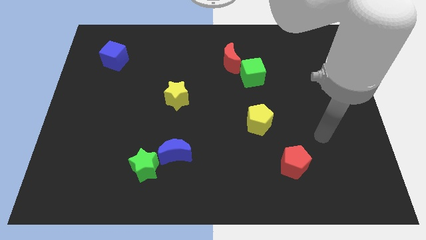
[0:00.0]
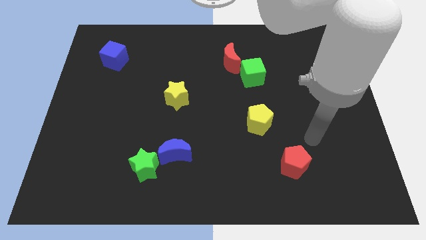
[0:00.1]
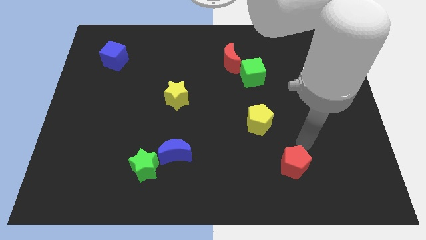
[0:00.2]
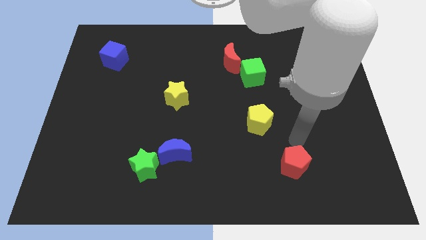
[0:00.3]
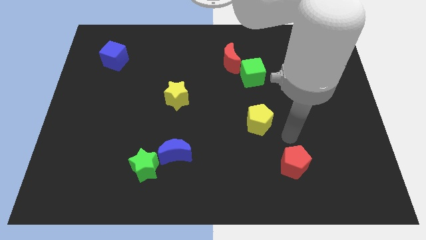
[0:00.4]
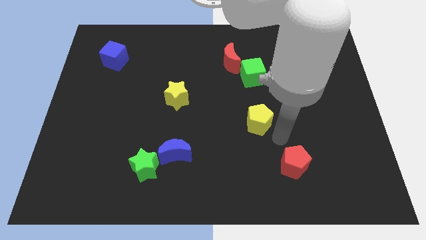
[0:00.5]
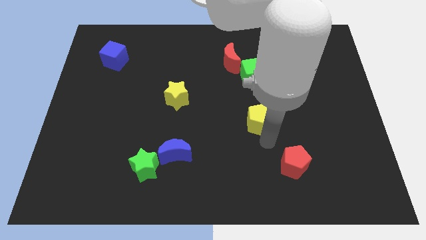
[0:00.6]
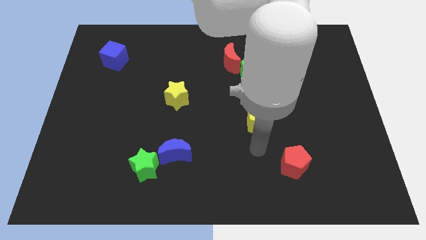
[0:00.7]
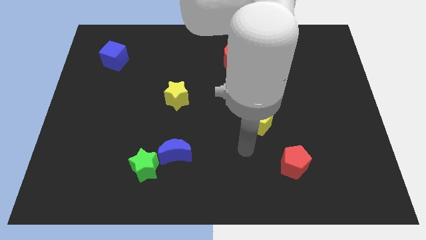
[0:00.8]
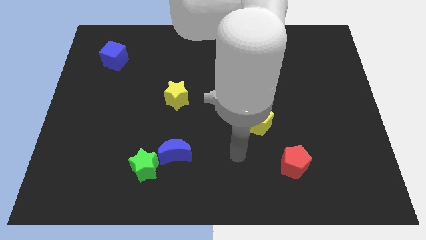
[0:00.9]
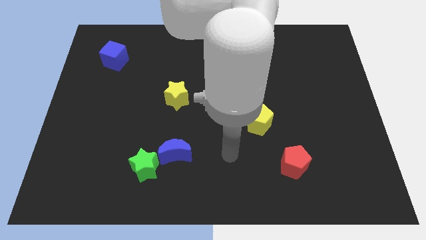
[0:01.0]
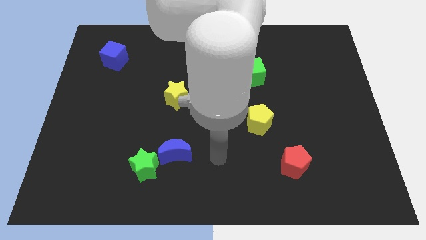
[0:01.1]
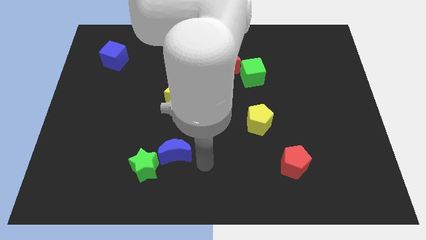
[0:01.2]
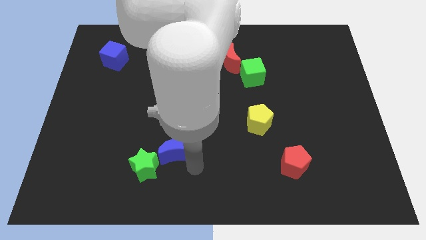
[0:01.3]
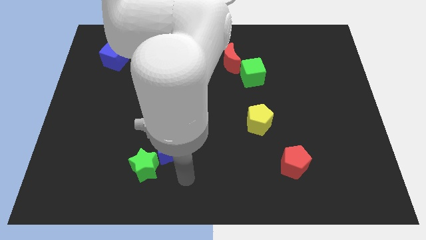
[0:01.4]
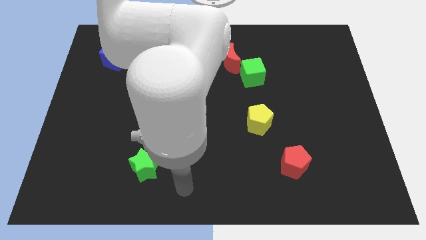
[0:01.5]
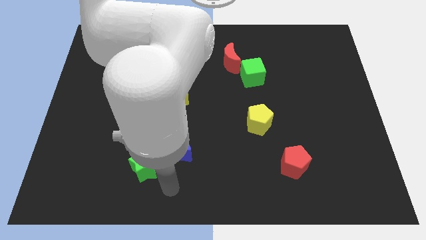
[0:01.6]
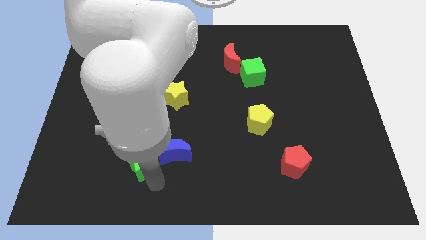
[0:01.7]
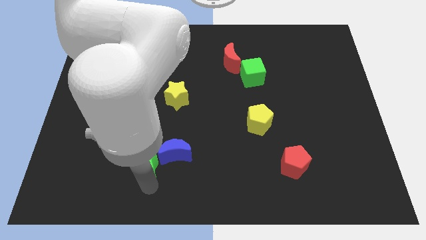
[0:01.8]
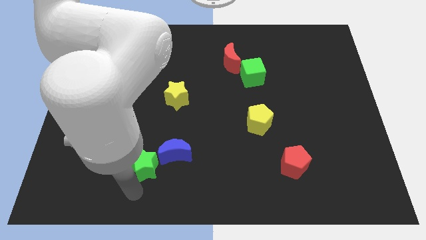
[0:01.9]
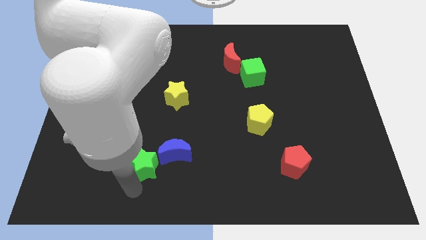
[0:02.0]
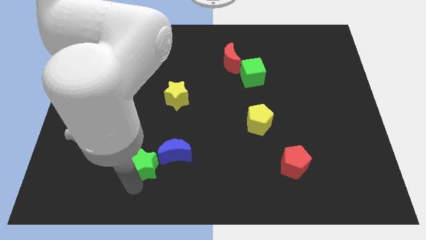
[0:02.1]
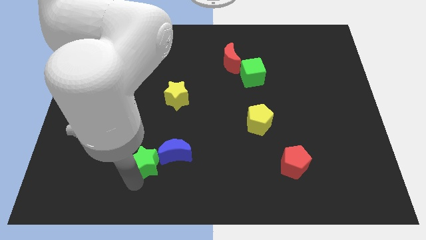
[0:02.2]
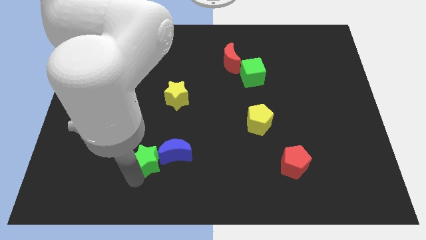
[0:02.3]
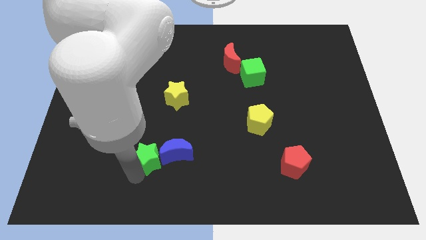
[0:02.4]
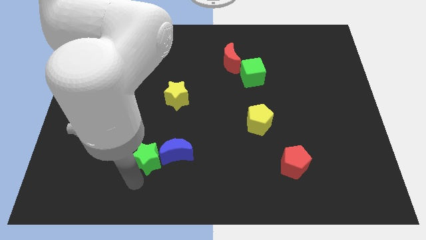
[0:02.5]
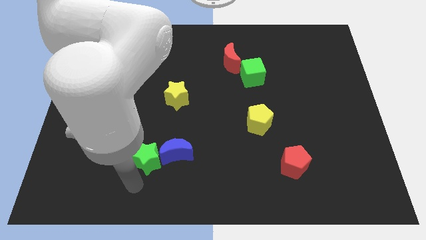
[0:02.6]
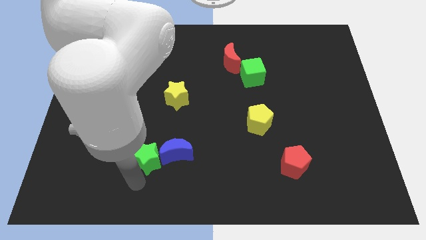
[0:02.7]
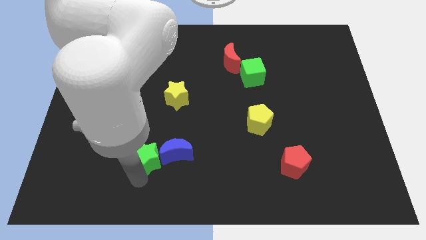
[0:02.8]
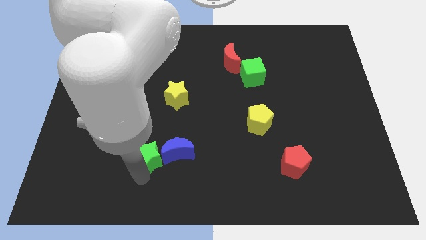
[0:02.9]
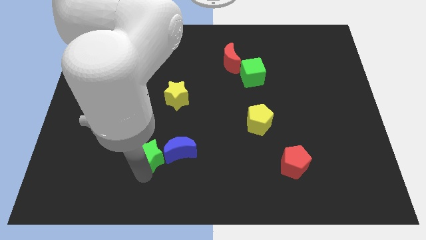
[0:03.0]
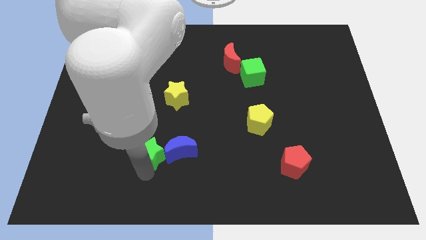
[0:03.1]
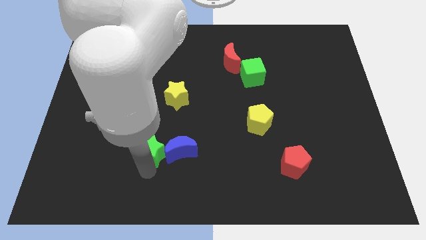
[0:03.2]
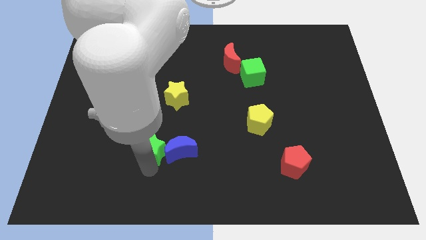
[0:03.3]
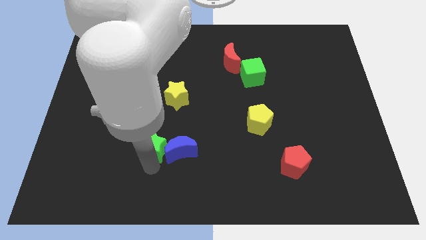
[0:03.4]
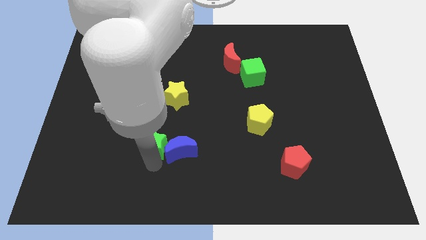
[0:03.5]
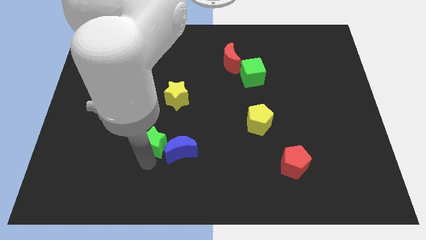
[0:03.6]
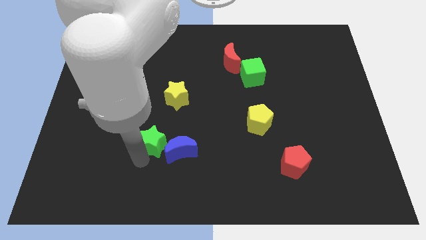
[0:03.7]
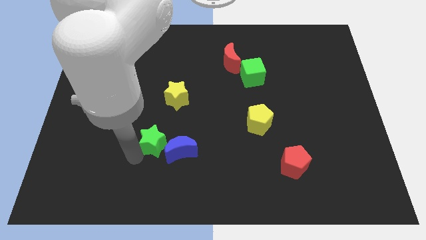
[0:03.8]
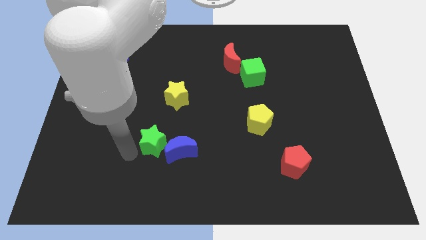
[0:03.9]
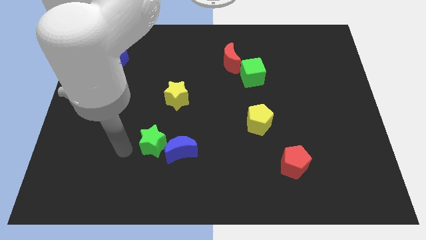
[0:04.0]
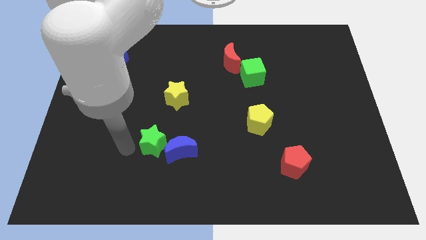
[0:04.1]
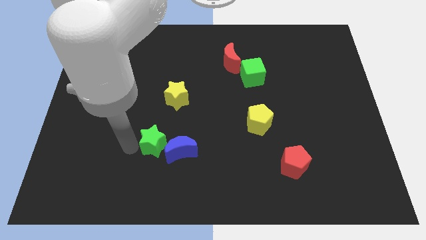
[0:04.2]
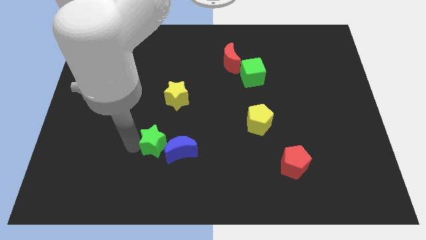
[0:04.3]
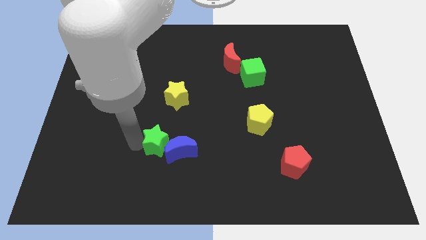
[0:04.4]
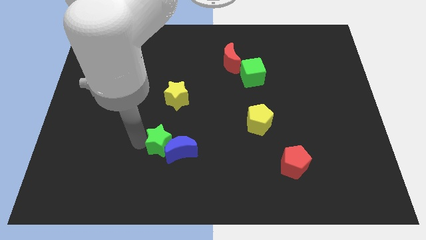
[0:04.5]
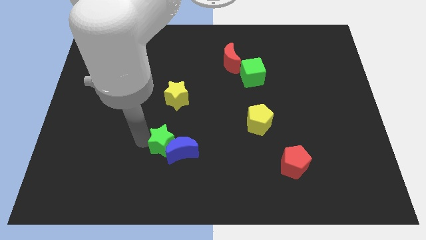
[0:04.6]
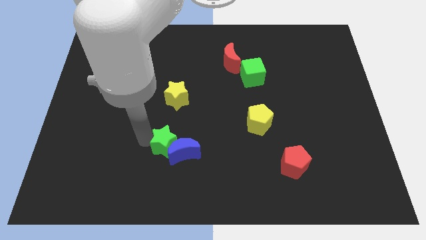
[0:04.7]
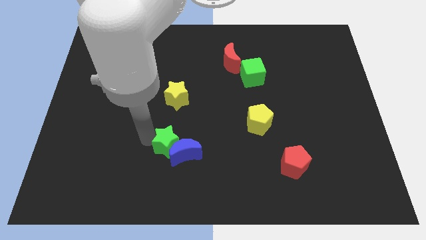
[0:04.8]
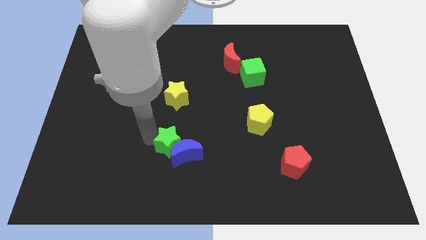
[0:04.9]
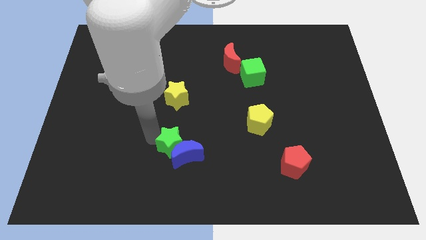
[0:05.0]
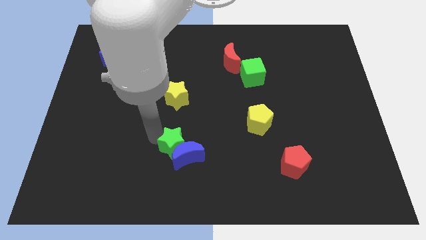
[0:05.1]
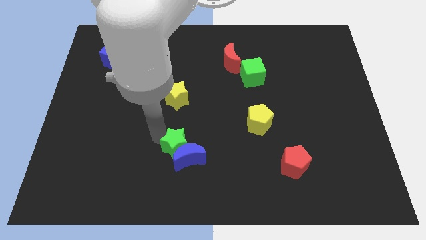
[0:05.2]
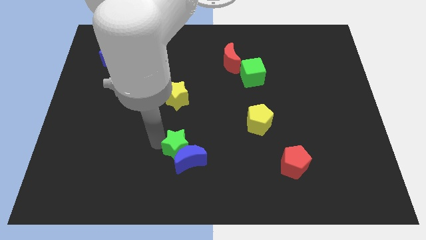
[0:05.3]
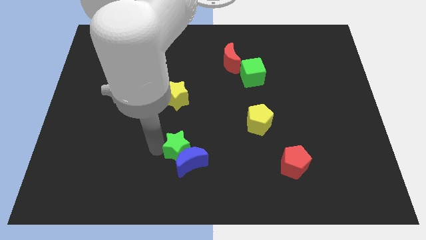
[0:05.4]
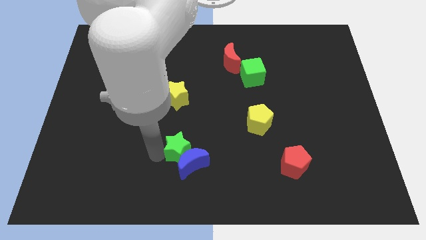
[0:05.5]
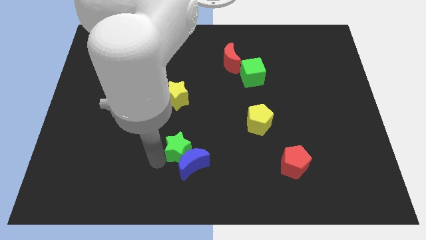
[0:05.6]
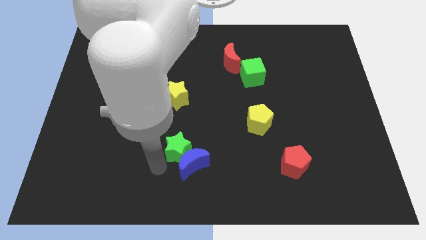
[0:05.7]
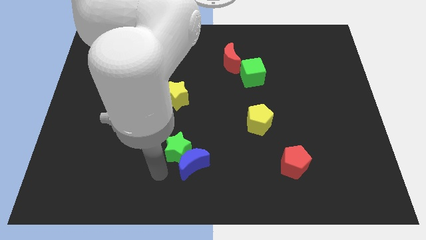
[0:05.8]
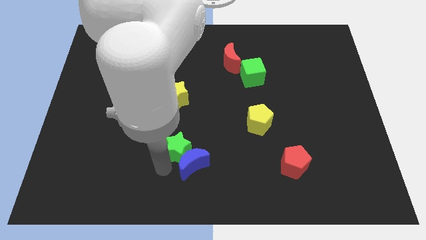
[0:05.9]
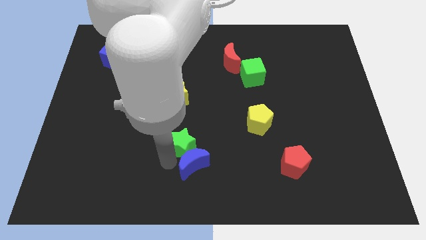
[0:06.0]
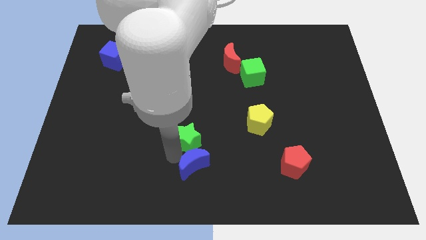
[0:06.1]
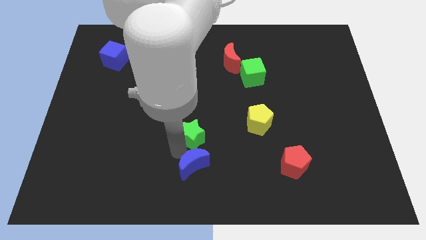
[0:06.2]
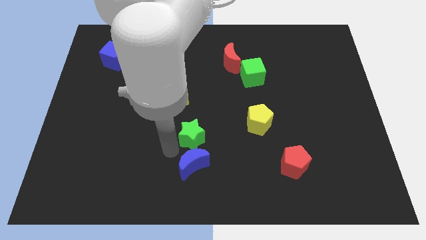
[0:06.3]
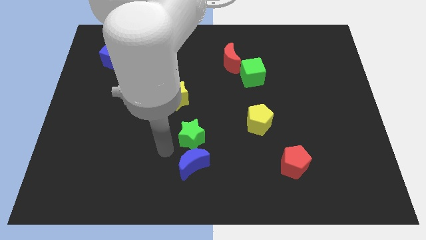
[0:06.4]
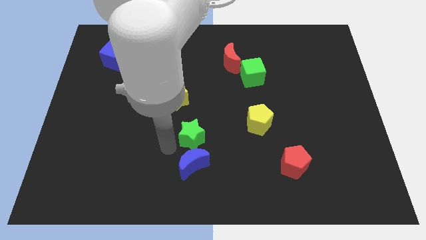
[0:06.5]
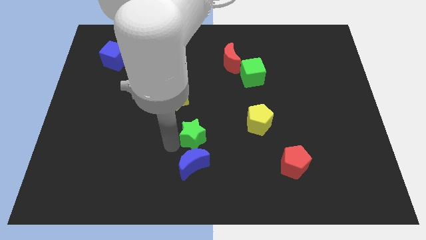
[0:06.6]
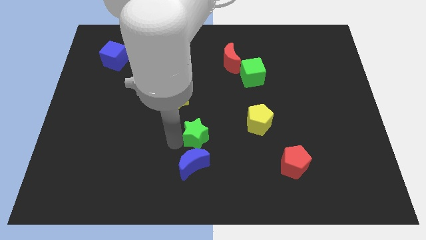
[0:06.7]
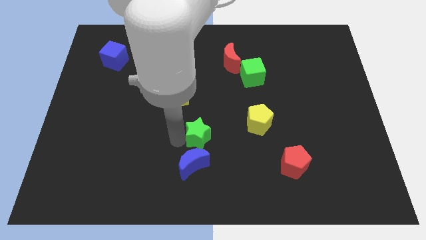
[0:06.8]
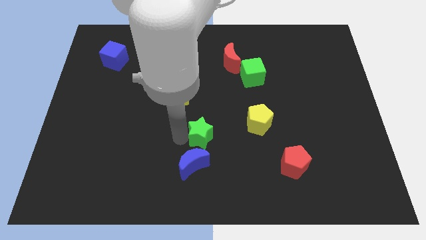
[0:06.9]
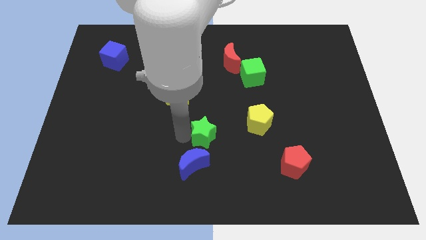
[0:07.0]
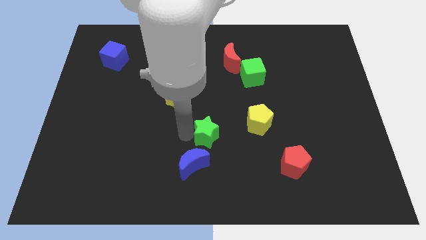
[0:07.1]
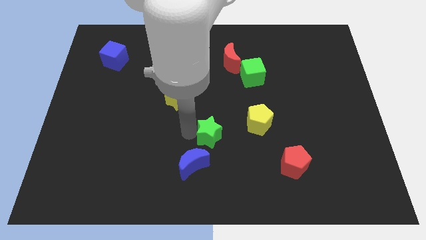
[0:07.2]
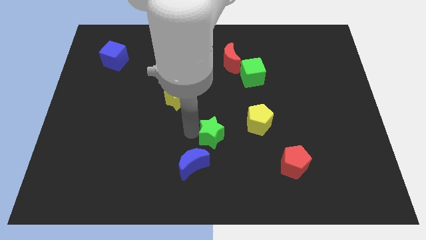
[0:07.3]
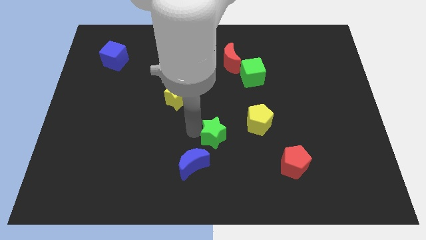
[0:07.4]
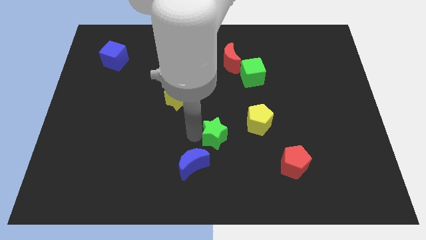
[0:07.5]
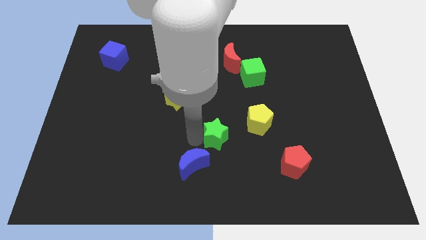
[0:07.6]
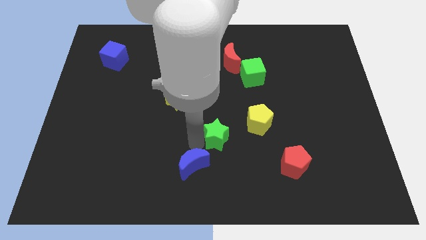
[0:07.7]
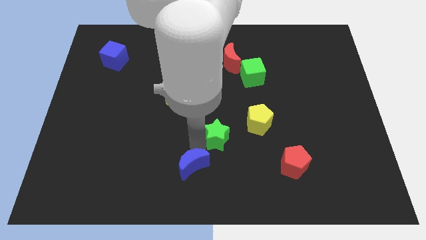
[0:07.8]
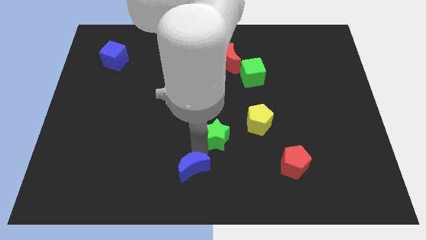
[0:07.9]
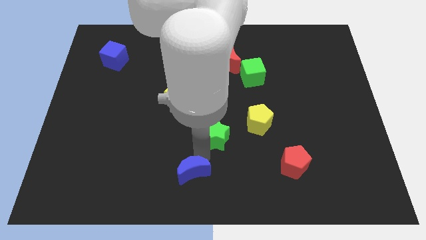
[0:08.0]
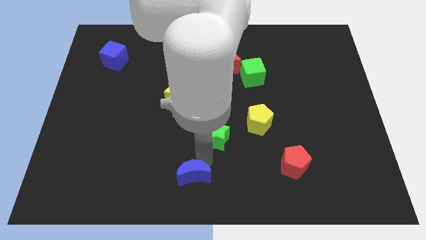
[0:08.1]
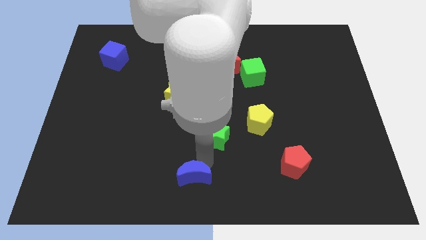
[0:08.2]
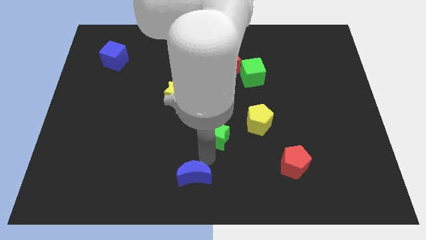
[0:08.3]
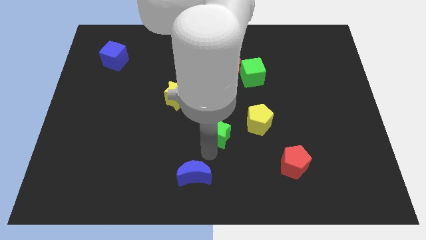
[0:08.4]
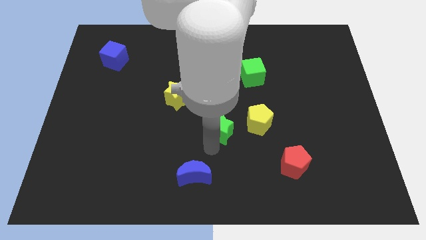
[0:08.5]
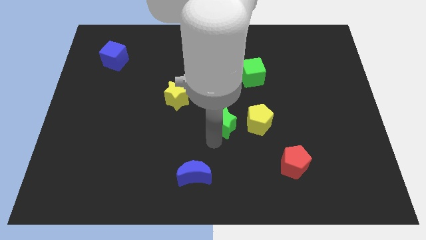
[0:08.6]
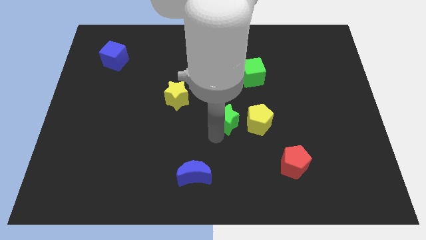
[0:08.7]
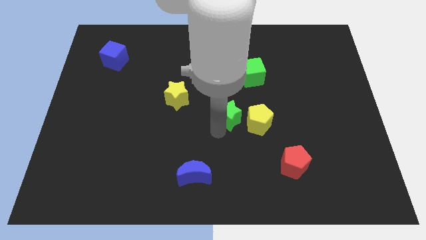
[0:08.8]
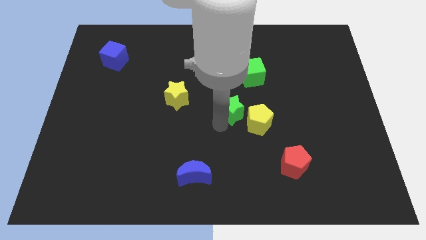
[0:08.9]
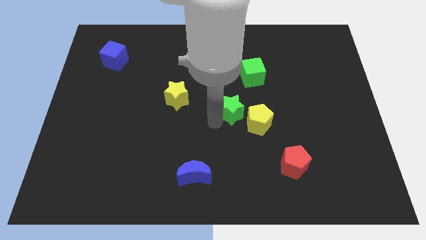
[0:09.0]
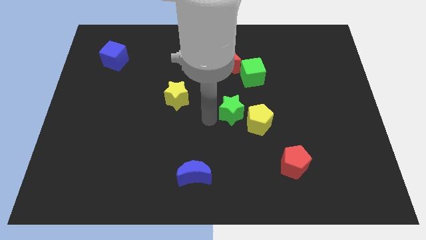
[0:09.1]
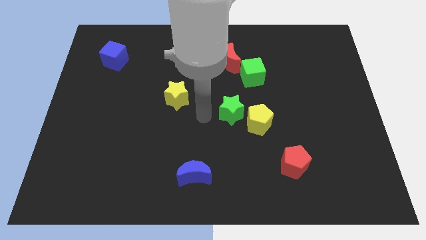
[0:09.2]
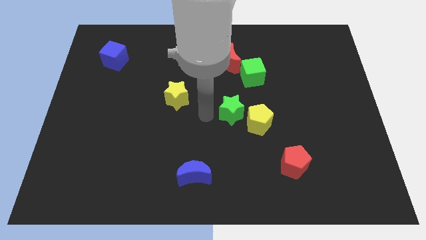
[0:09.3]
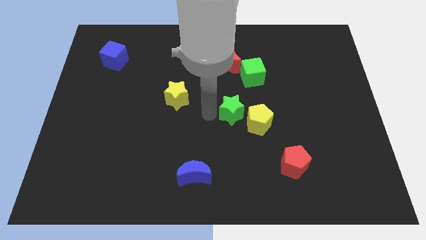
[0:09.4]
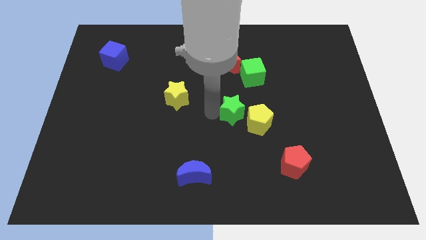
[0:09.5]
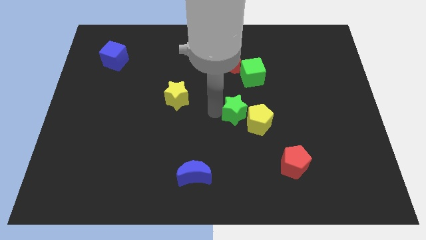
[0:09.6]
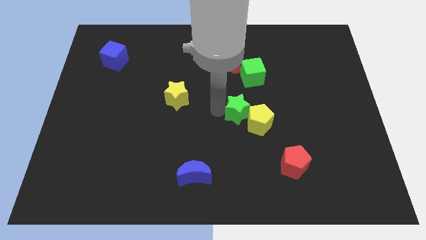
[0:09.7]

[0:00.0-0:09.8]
push the green star to the bottom of the green cube
